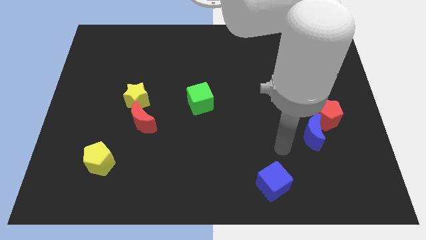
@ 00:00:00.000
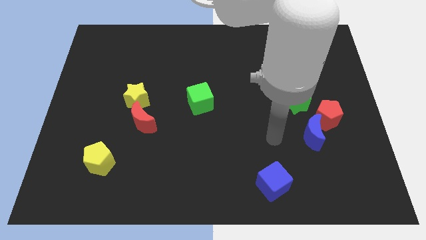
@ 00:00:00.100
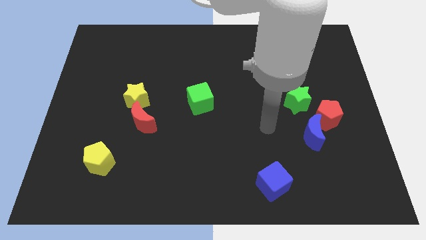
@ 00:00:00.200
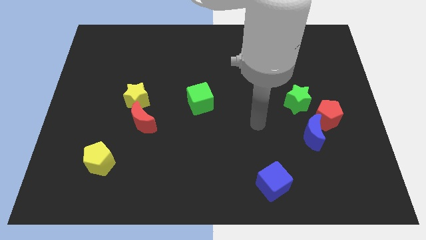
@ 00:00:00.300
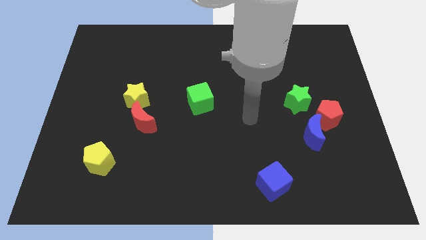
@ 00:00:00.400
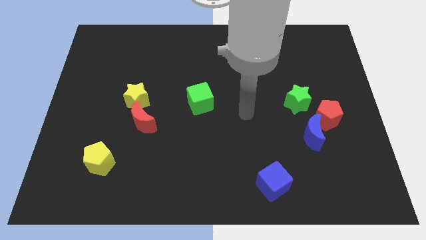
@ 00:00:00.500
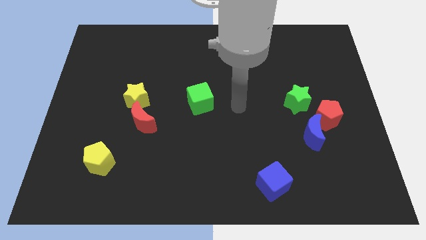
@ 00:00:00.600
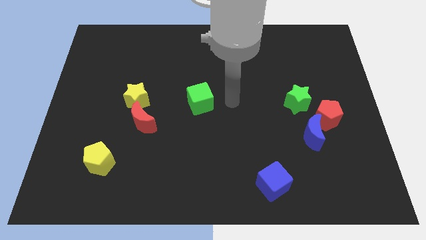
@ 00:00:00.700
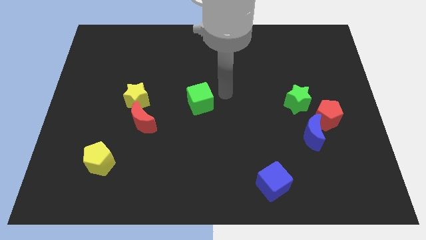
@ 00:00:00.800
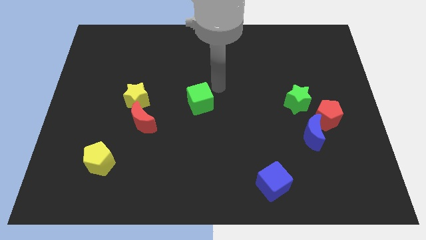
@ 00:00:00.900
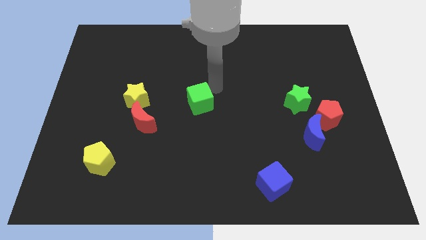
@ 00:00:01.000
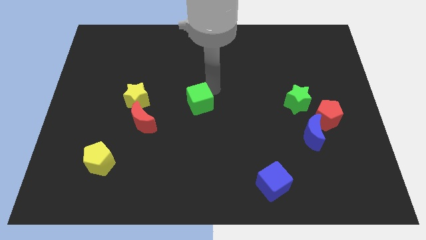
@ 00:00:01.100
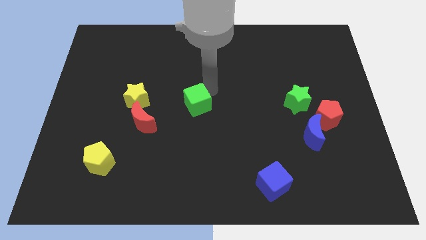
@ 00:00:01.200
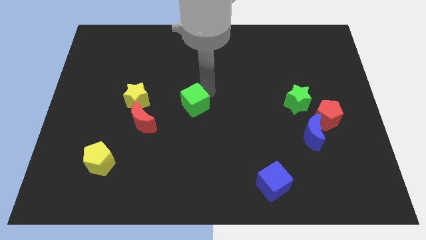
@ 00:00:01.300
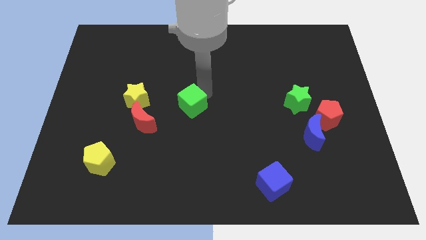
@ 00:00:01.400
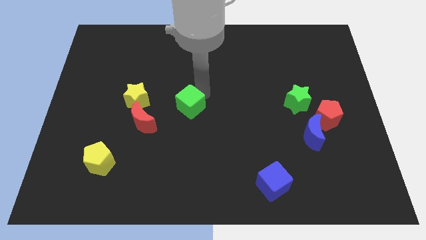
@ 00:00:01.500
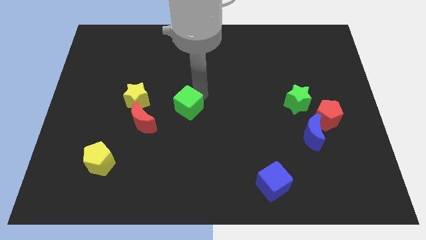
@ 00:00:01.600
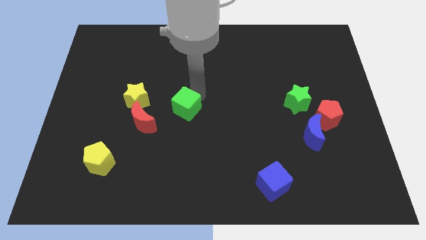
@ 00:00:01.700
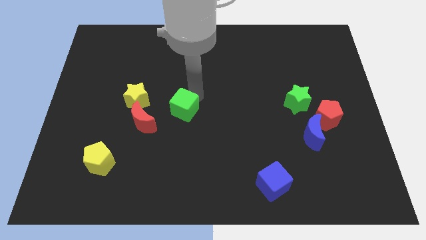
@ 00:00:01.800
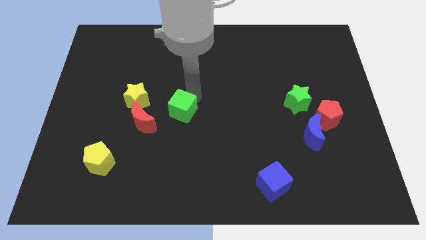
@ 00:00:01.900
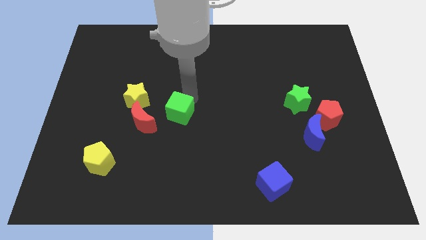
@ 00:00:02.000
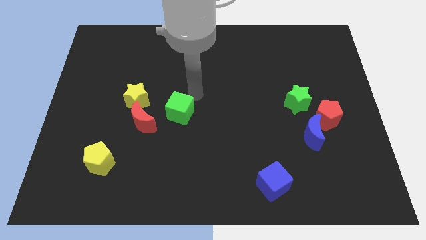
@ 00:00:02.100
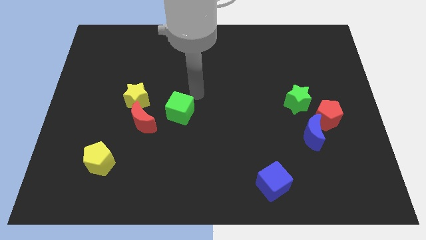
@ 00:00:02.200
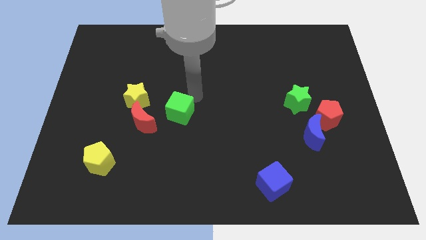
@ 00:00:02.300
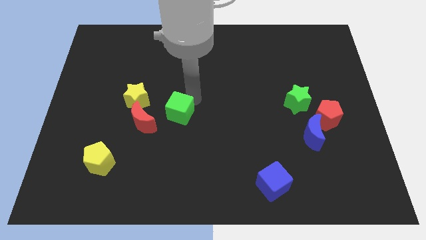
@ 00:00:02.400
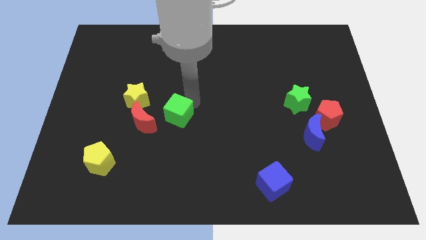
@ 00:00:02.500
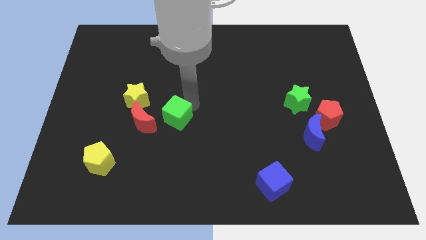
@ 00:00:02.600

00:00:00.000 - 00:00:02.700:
move the green cube a little bit diagonally downwards and to the left

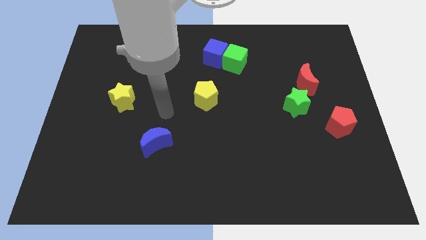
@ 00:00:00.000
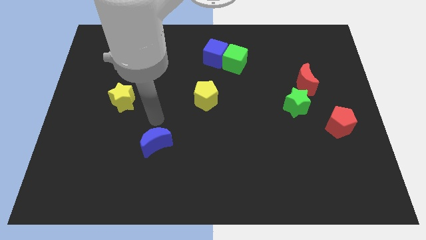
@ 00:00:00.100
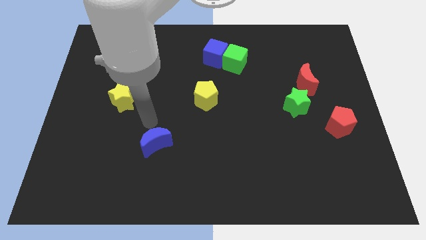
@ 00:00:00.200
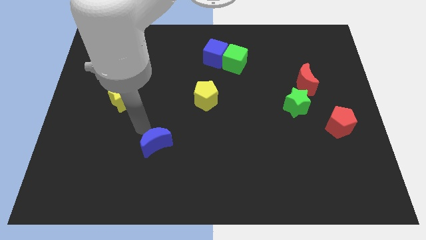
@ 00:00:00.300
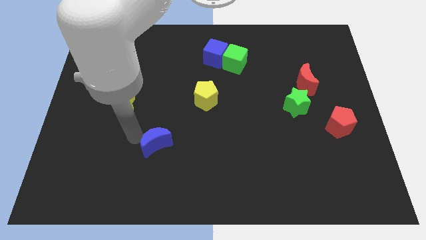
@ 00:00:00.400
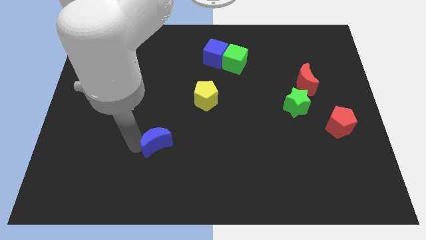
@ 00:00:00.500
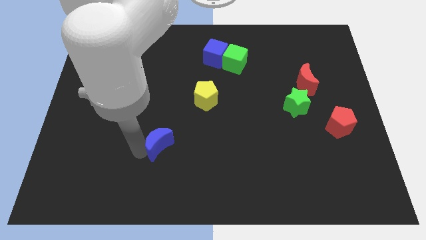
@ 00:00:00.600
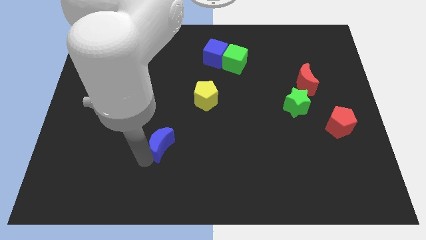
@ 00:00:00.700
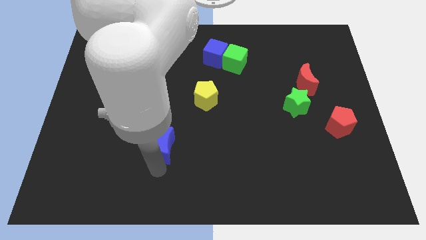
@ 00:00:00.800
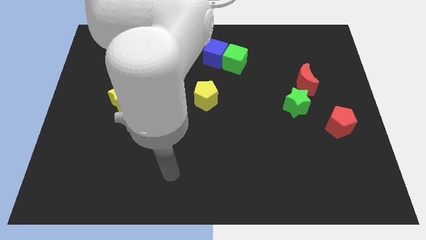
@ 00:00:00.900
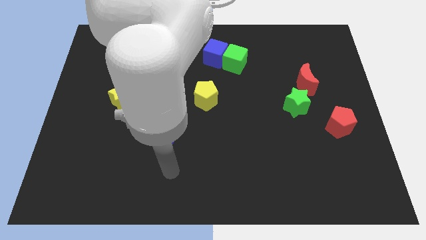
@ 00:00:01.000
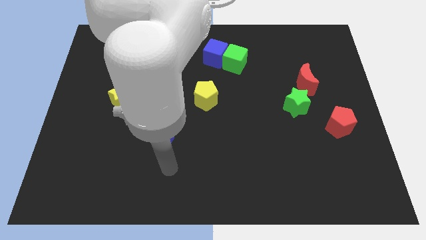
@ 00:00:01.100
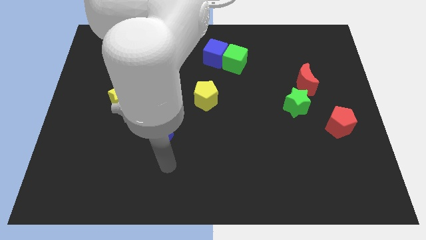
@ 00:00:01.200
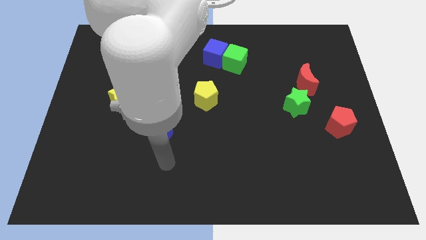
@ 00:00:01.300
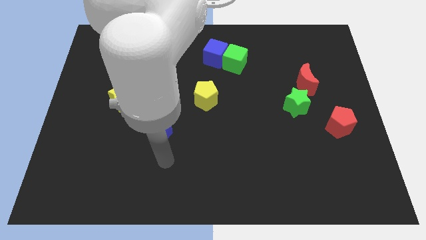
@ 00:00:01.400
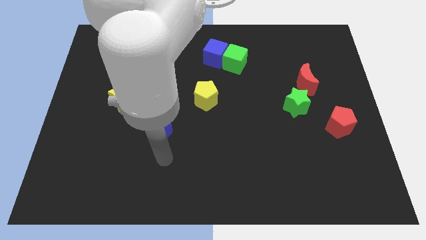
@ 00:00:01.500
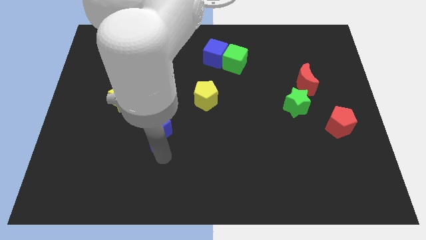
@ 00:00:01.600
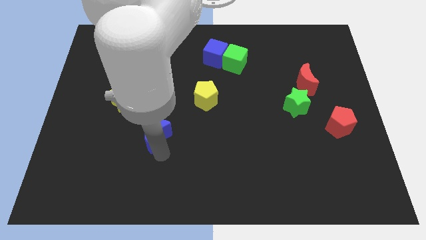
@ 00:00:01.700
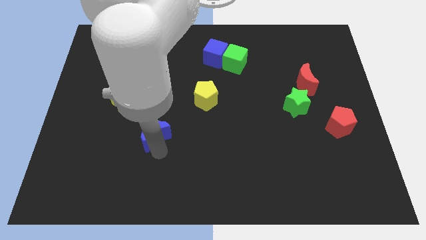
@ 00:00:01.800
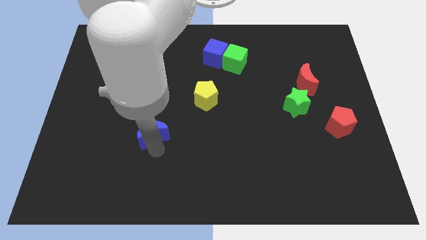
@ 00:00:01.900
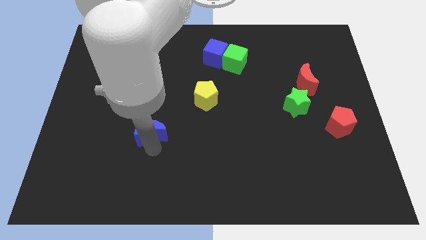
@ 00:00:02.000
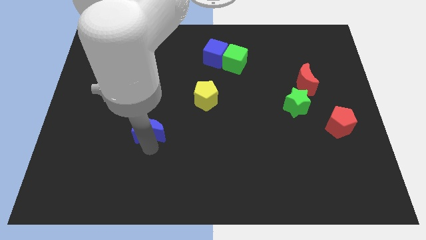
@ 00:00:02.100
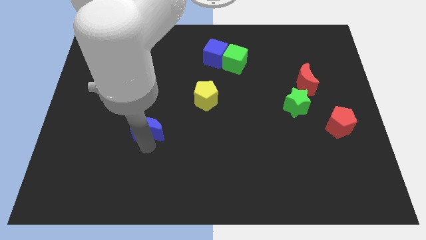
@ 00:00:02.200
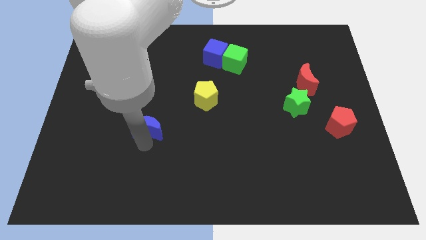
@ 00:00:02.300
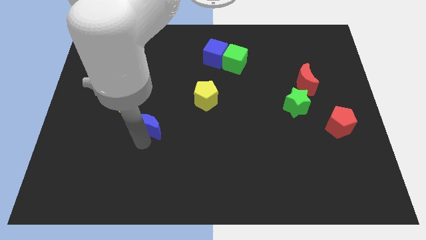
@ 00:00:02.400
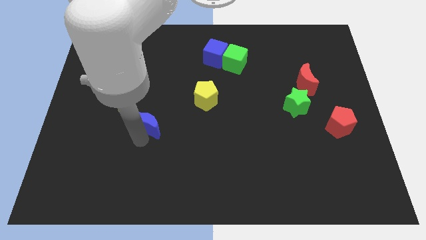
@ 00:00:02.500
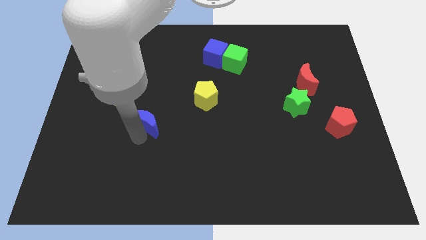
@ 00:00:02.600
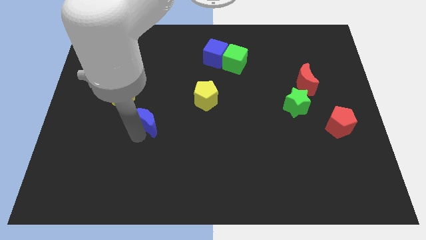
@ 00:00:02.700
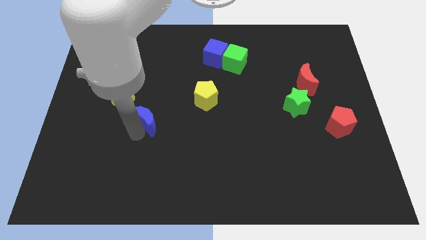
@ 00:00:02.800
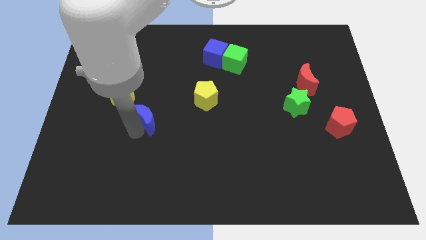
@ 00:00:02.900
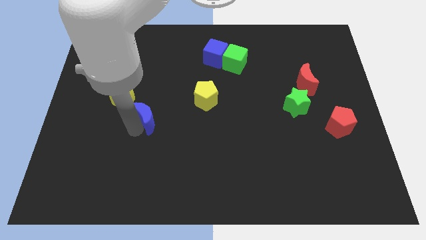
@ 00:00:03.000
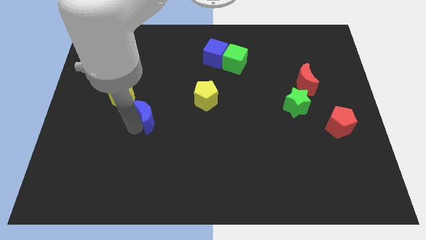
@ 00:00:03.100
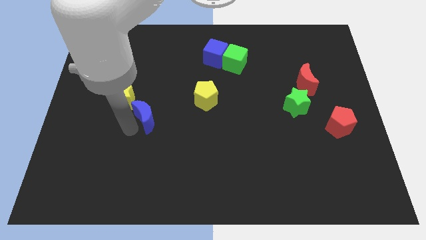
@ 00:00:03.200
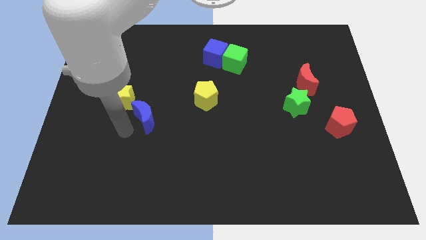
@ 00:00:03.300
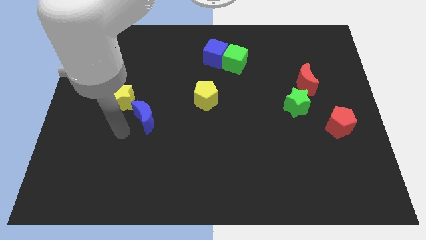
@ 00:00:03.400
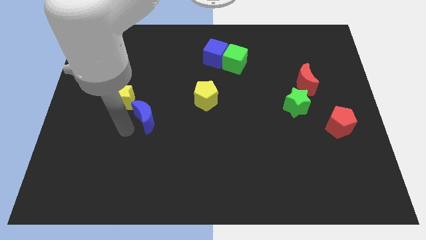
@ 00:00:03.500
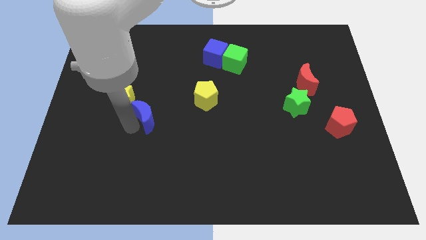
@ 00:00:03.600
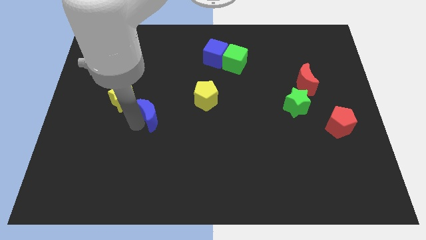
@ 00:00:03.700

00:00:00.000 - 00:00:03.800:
push the blue moon upwards a bit

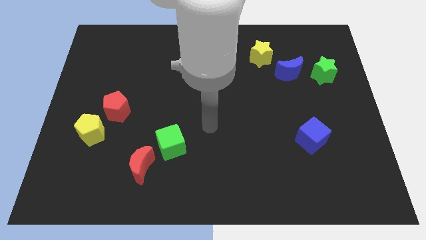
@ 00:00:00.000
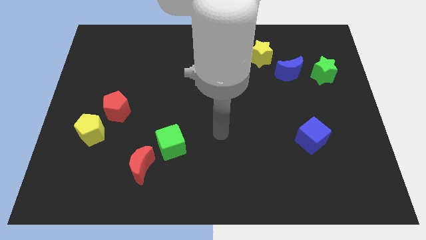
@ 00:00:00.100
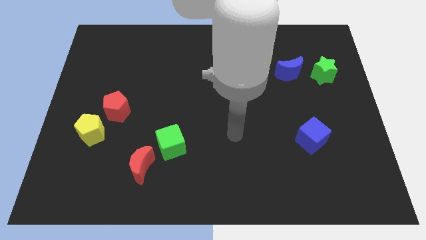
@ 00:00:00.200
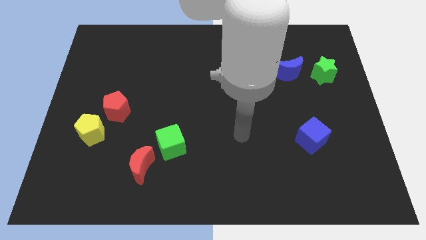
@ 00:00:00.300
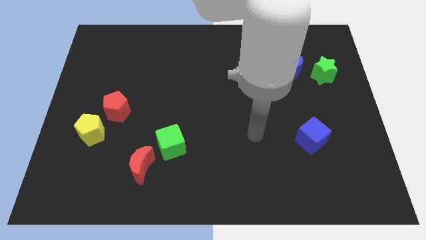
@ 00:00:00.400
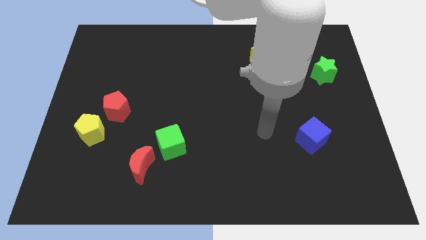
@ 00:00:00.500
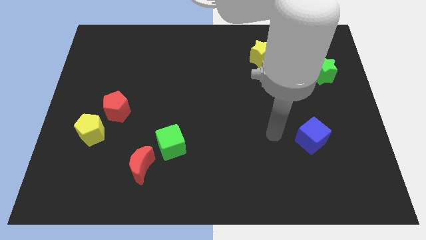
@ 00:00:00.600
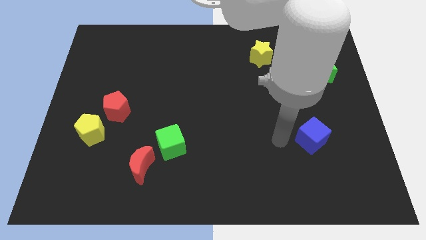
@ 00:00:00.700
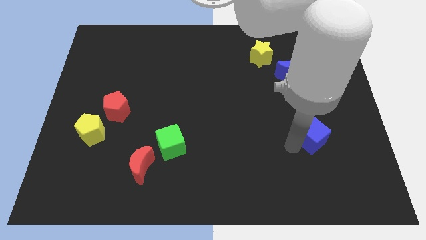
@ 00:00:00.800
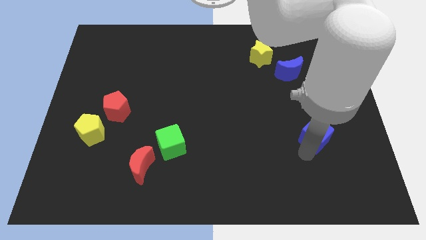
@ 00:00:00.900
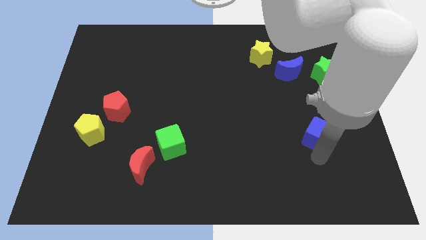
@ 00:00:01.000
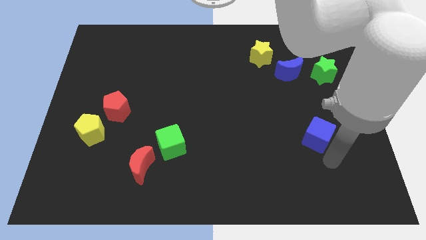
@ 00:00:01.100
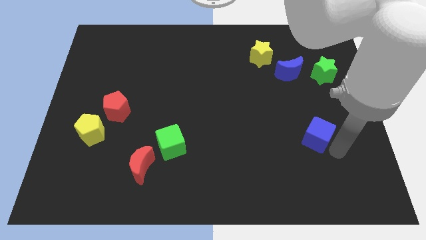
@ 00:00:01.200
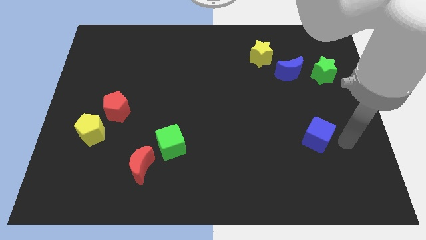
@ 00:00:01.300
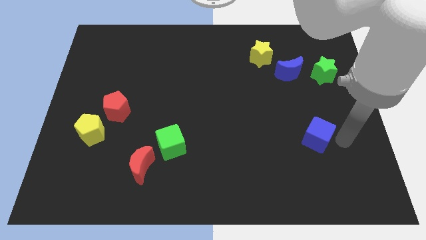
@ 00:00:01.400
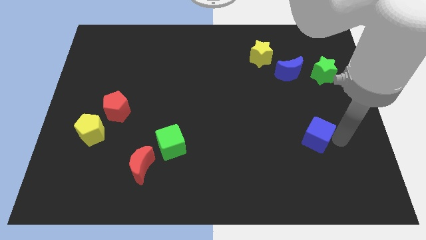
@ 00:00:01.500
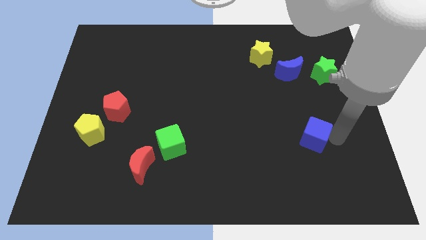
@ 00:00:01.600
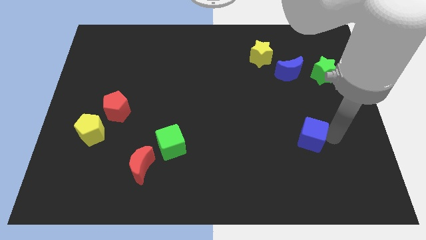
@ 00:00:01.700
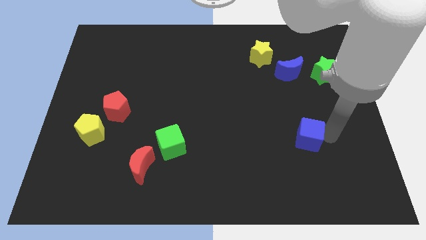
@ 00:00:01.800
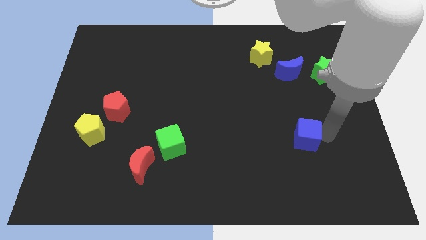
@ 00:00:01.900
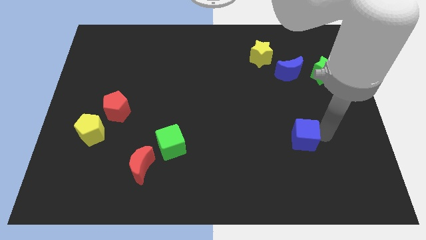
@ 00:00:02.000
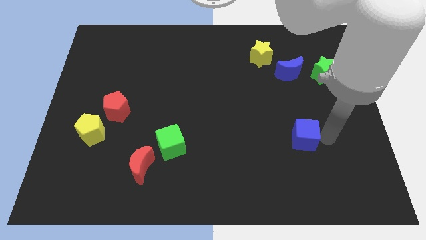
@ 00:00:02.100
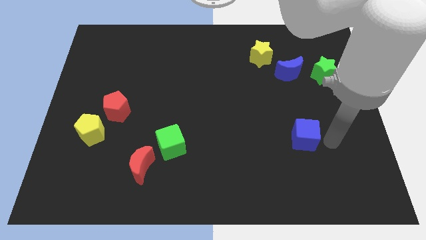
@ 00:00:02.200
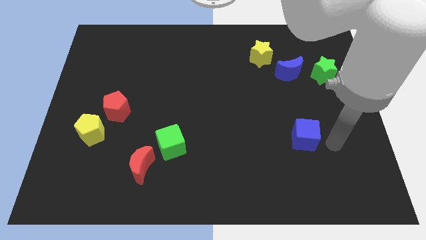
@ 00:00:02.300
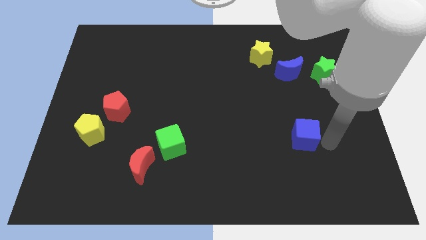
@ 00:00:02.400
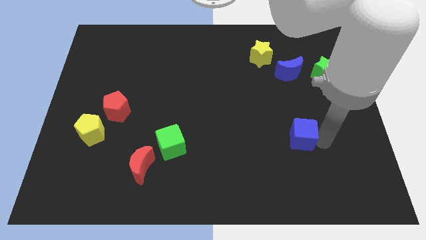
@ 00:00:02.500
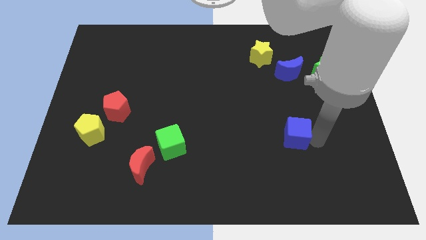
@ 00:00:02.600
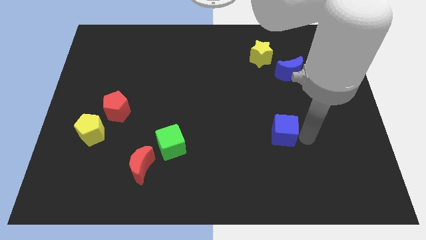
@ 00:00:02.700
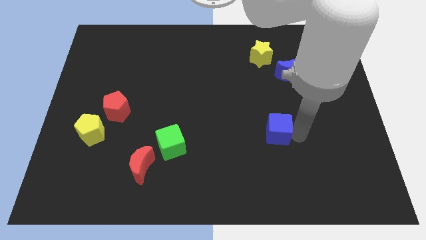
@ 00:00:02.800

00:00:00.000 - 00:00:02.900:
slightly slide the blue cube left
